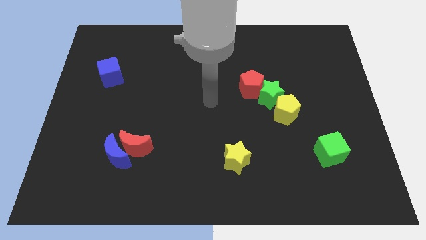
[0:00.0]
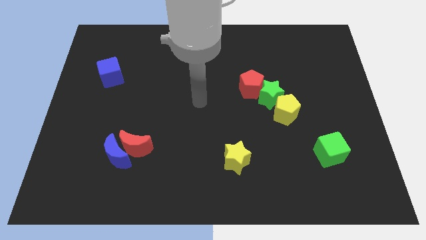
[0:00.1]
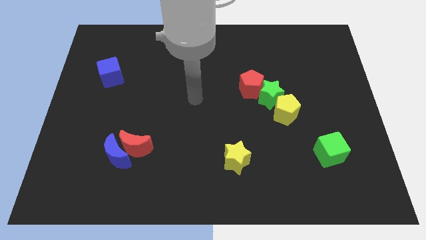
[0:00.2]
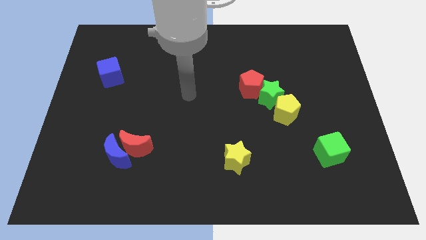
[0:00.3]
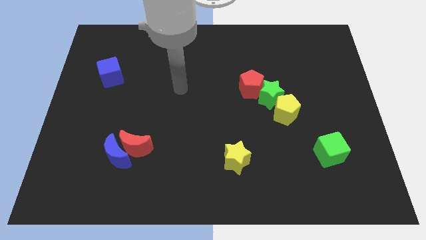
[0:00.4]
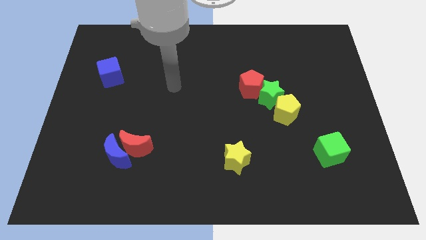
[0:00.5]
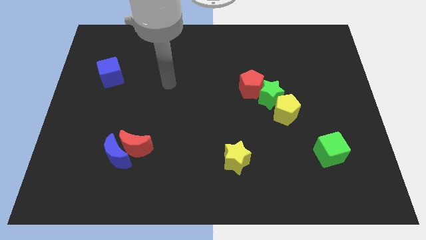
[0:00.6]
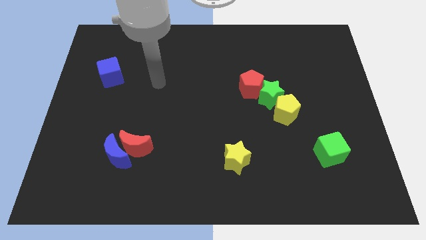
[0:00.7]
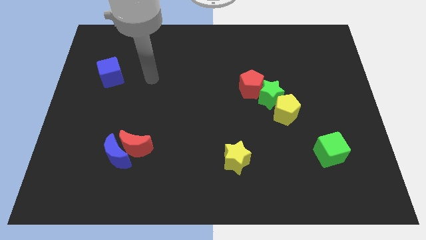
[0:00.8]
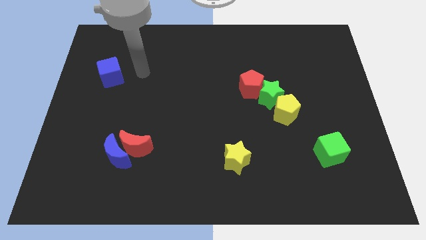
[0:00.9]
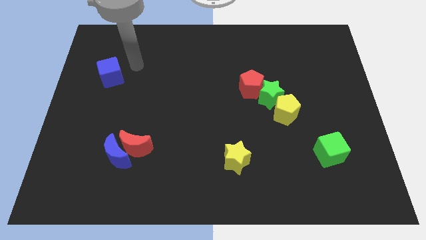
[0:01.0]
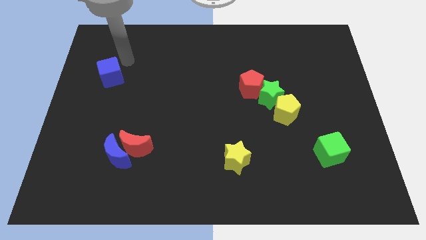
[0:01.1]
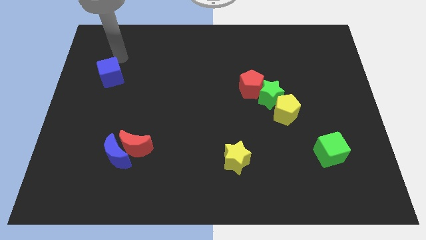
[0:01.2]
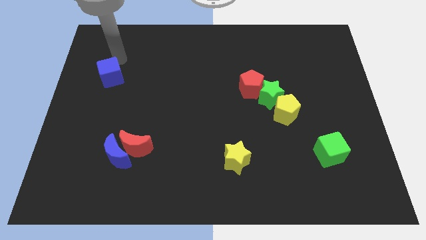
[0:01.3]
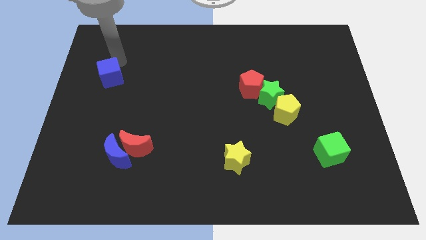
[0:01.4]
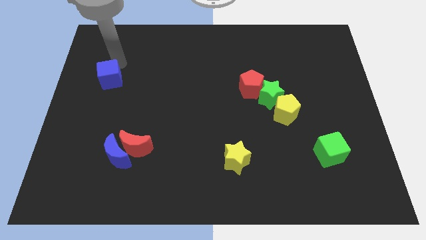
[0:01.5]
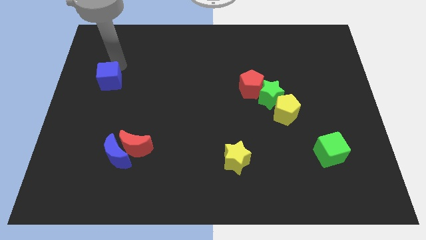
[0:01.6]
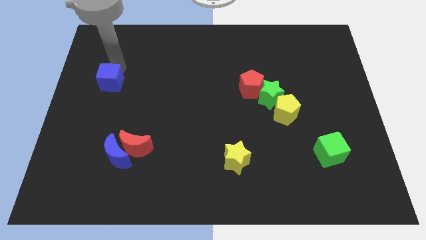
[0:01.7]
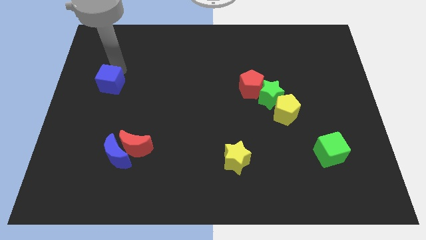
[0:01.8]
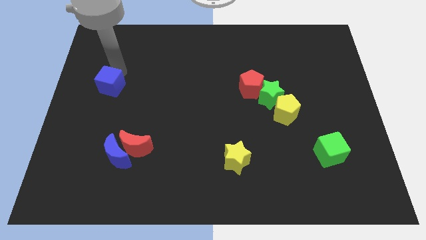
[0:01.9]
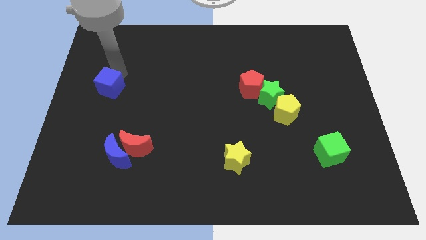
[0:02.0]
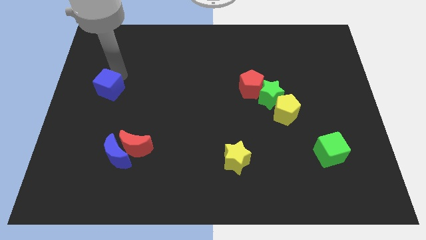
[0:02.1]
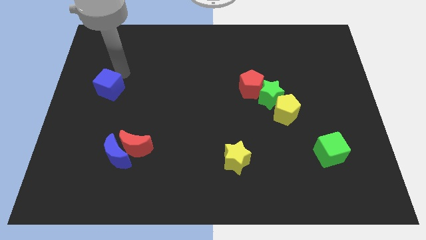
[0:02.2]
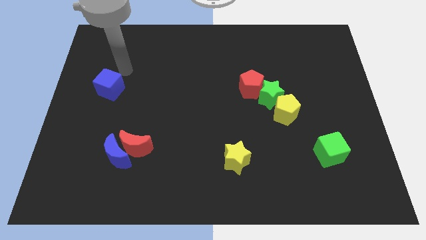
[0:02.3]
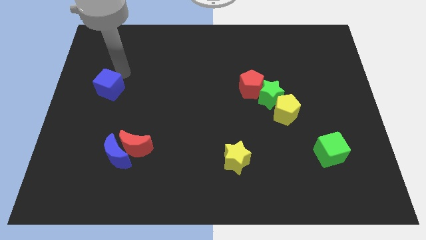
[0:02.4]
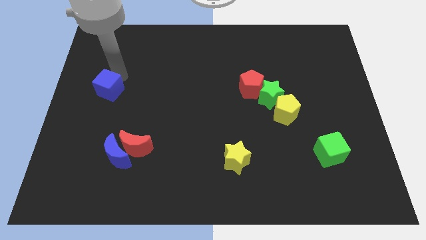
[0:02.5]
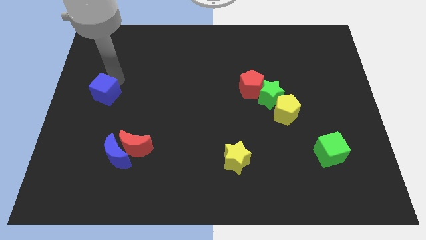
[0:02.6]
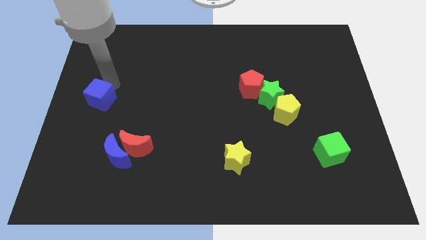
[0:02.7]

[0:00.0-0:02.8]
slide the blue cube down a little

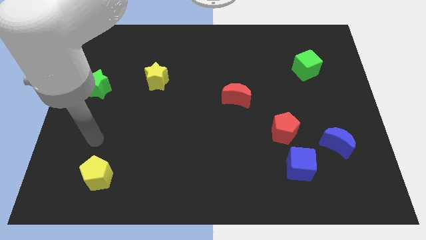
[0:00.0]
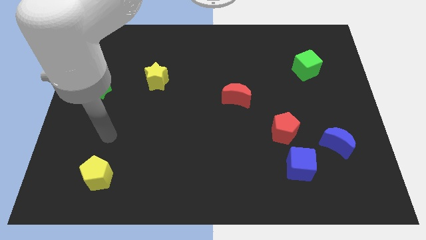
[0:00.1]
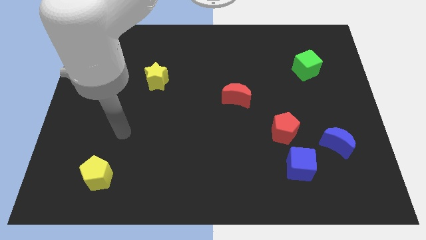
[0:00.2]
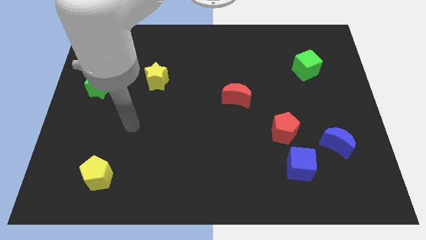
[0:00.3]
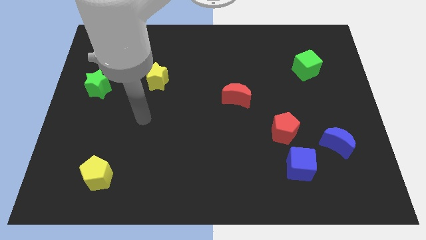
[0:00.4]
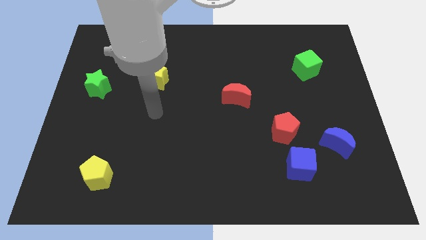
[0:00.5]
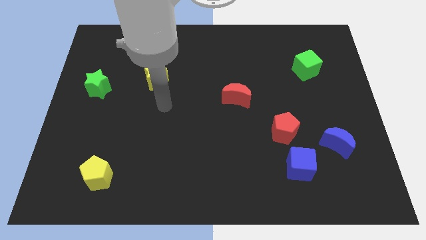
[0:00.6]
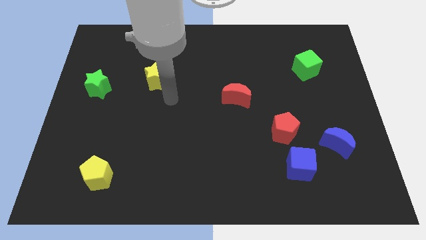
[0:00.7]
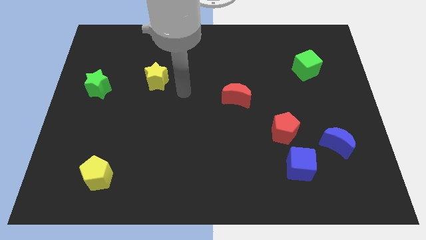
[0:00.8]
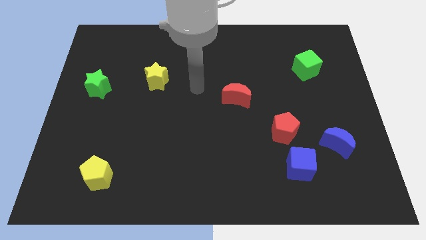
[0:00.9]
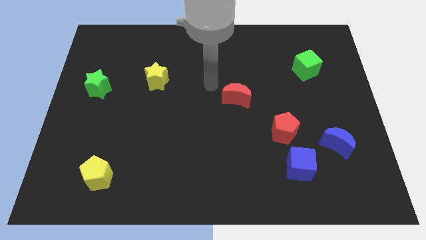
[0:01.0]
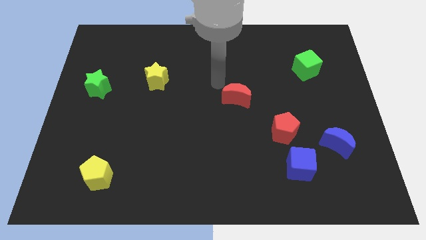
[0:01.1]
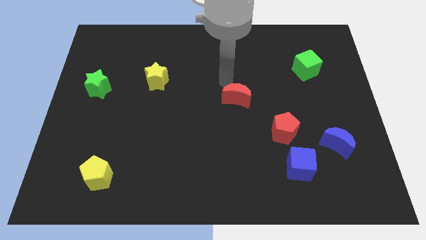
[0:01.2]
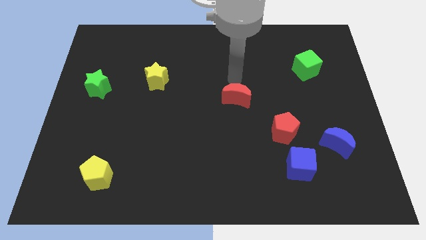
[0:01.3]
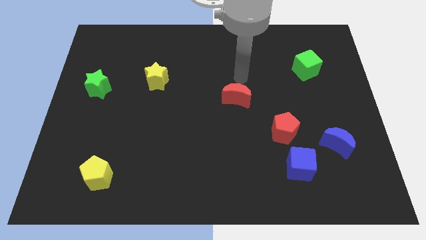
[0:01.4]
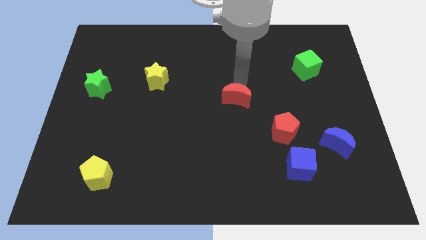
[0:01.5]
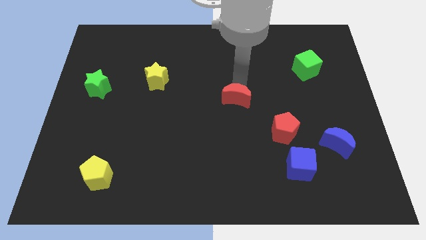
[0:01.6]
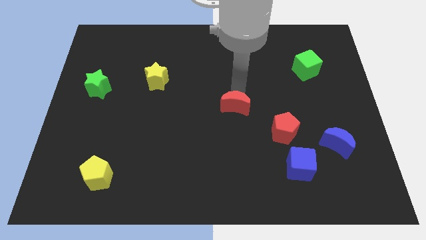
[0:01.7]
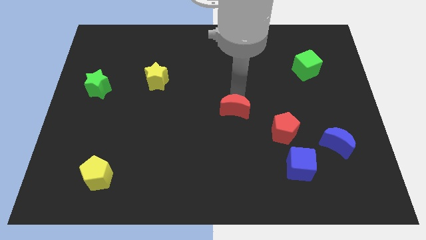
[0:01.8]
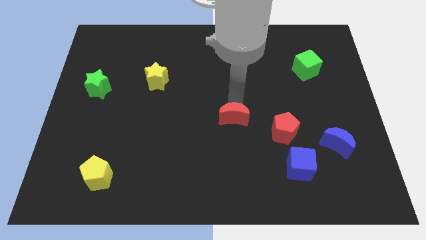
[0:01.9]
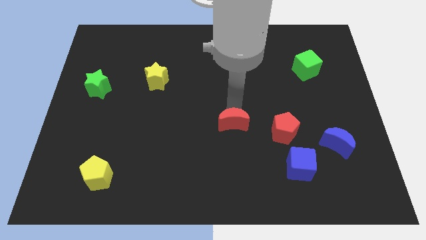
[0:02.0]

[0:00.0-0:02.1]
slide the red moon down a little bit

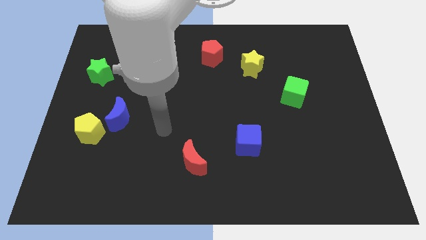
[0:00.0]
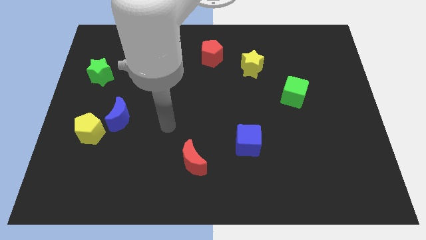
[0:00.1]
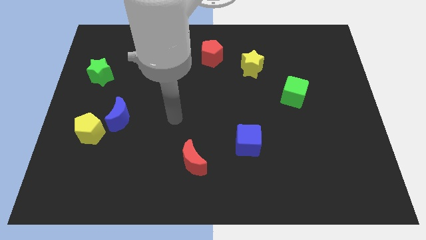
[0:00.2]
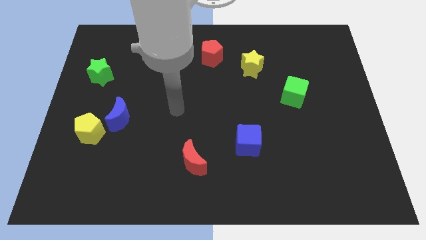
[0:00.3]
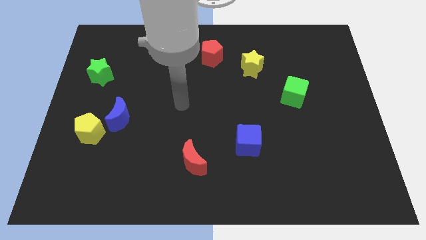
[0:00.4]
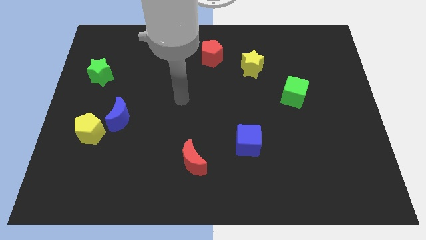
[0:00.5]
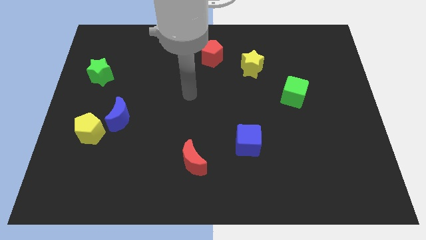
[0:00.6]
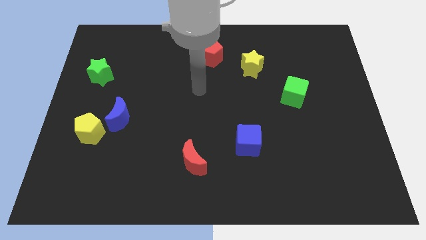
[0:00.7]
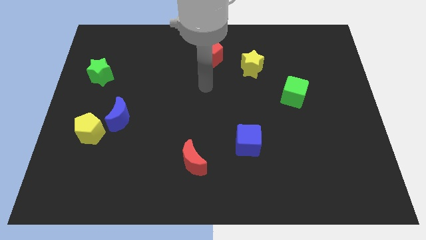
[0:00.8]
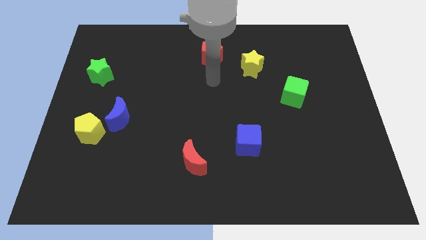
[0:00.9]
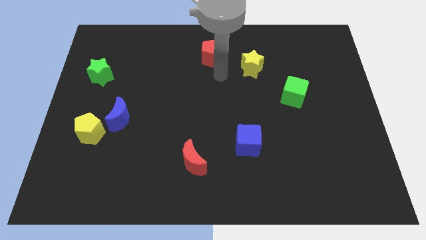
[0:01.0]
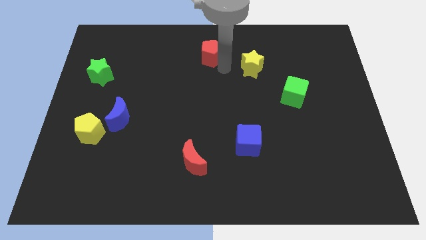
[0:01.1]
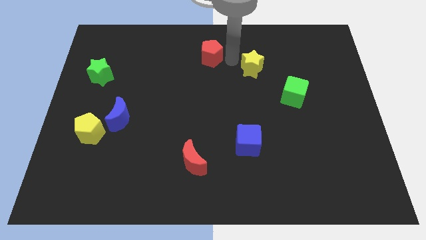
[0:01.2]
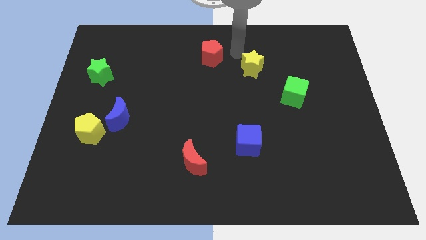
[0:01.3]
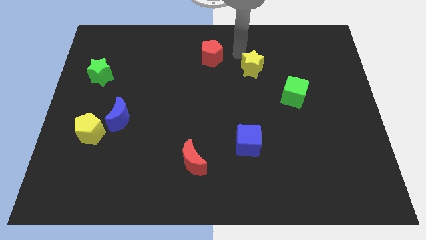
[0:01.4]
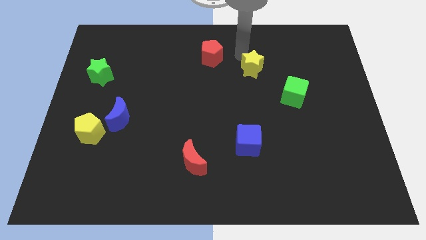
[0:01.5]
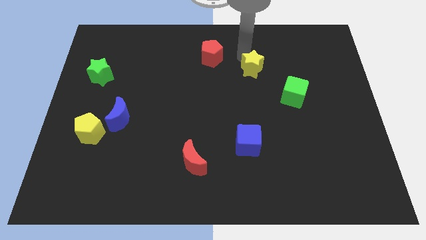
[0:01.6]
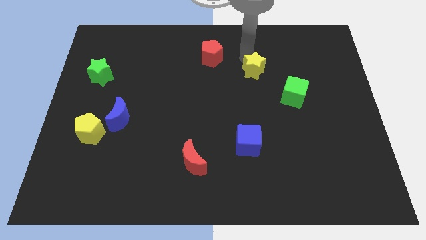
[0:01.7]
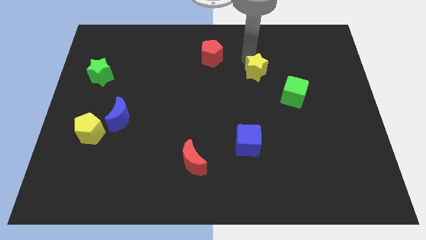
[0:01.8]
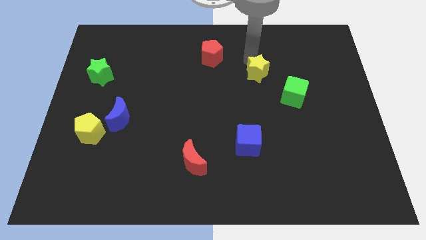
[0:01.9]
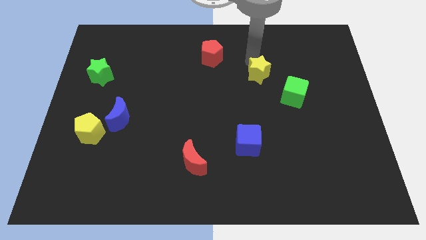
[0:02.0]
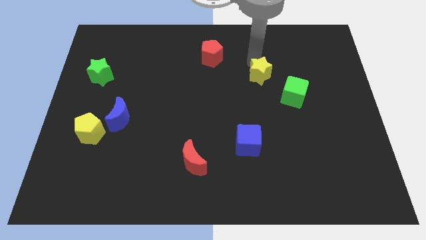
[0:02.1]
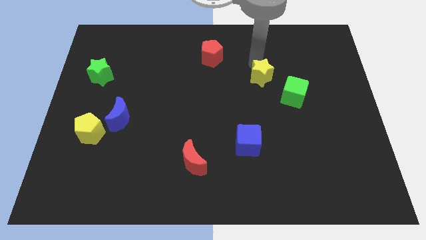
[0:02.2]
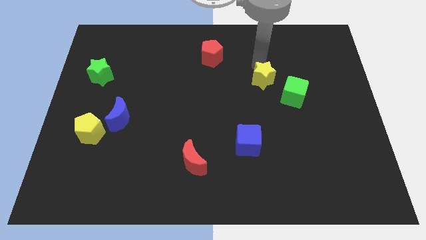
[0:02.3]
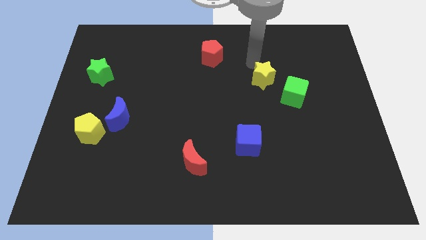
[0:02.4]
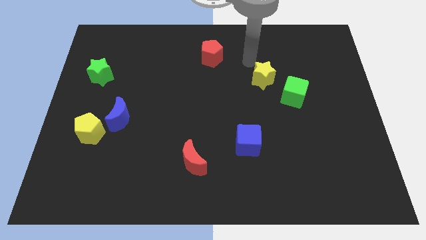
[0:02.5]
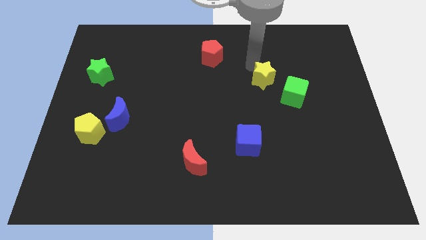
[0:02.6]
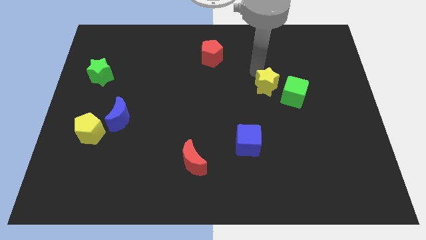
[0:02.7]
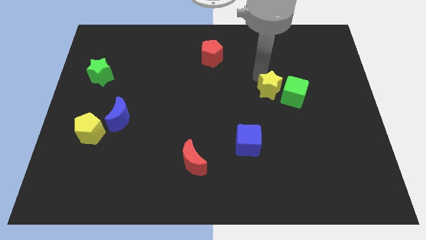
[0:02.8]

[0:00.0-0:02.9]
push the yellow star diagonally down and to the right slightly

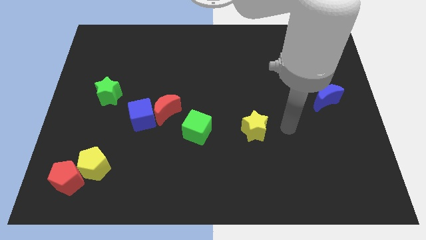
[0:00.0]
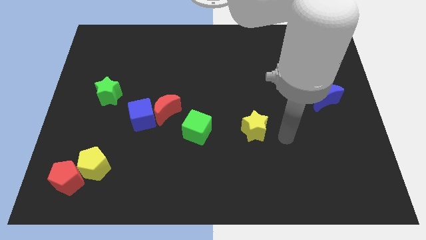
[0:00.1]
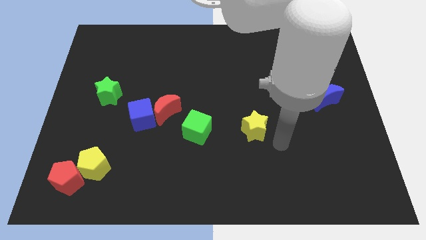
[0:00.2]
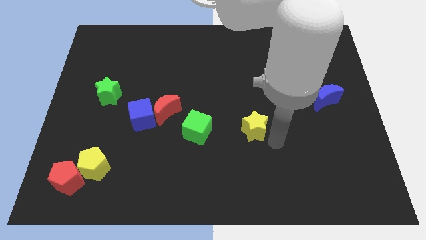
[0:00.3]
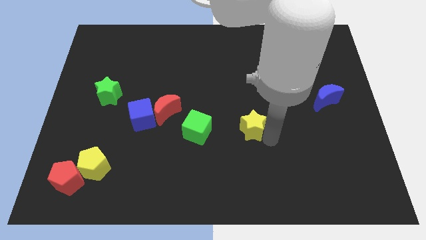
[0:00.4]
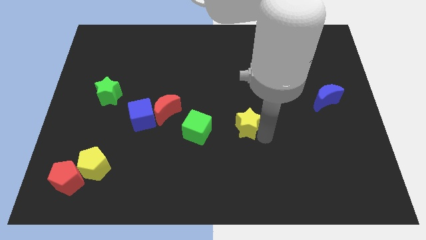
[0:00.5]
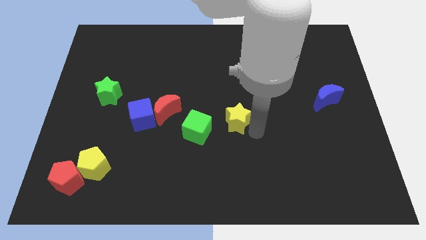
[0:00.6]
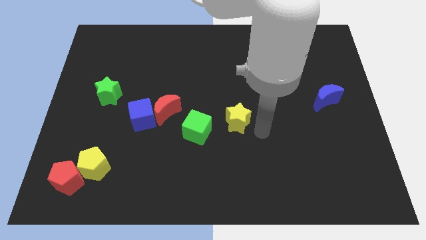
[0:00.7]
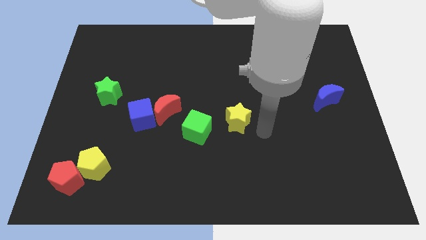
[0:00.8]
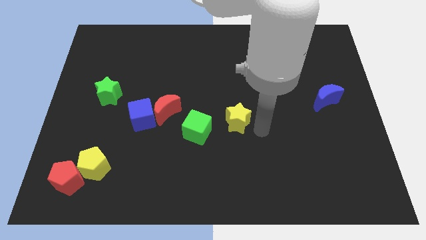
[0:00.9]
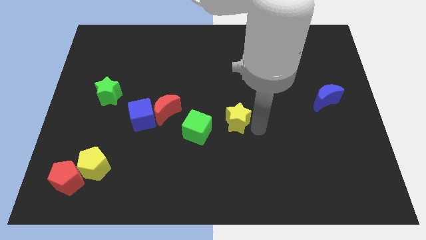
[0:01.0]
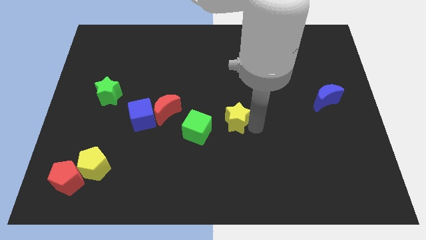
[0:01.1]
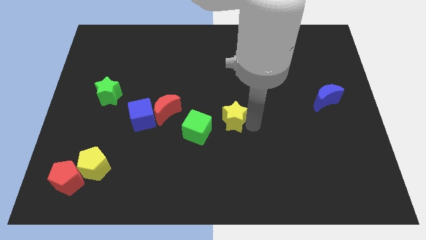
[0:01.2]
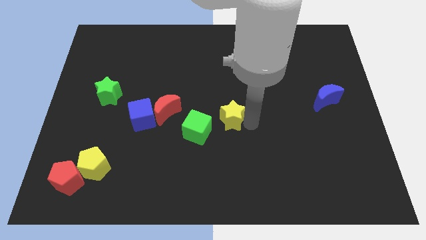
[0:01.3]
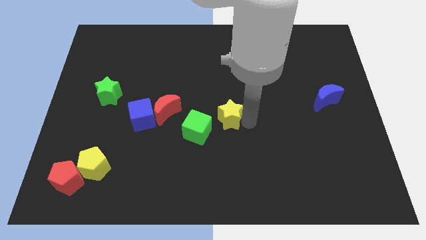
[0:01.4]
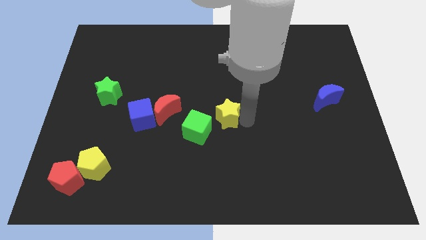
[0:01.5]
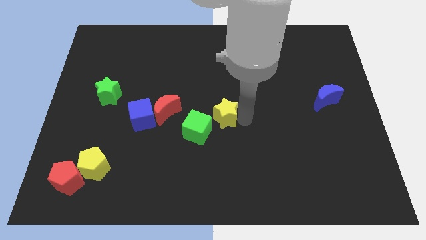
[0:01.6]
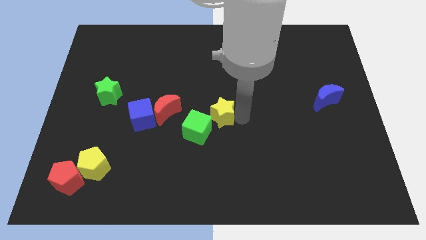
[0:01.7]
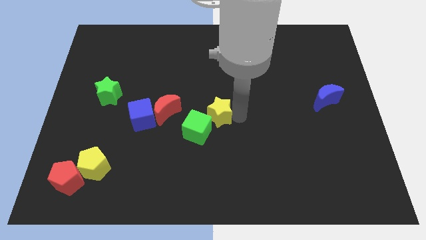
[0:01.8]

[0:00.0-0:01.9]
slide the yellow star to the left slightly
